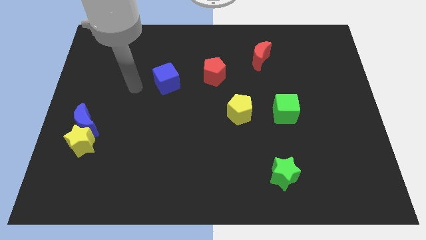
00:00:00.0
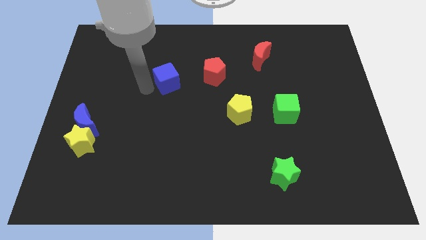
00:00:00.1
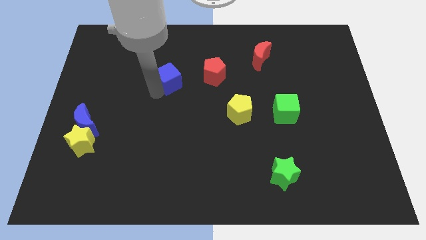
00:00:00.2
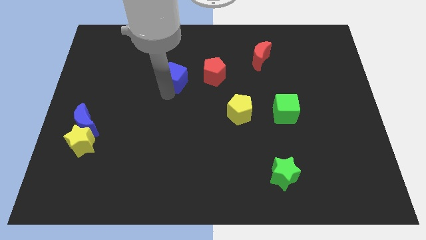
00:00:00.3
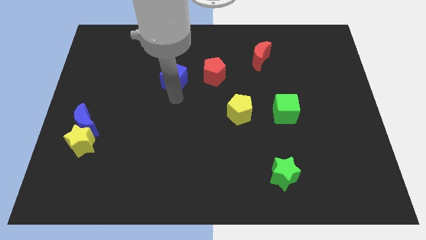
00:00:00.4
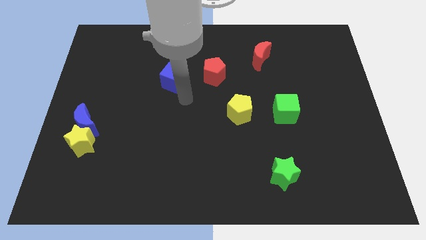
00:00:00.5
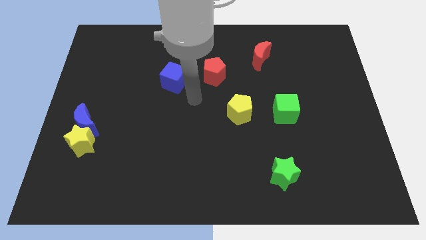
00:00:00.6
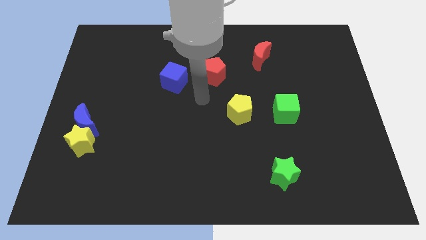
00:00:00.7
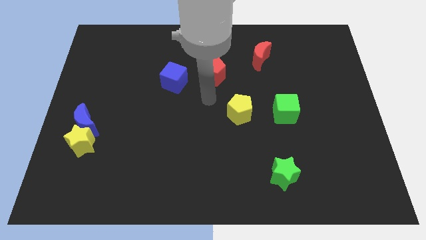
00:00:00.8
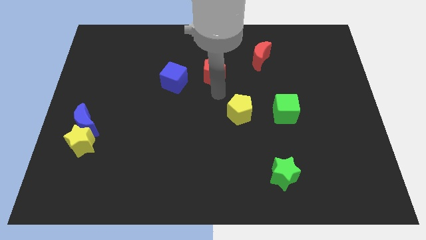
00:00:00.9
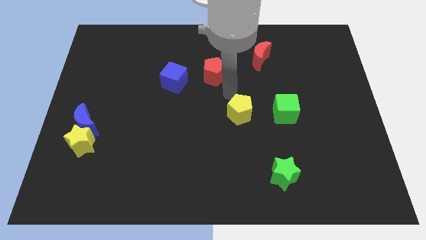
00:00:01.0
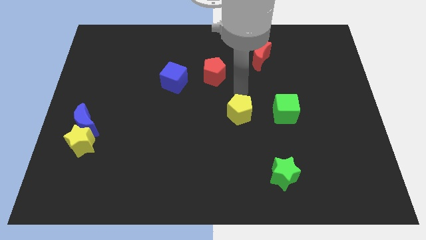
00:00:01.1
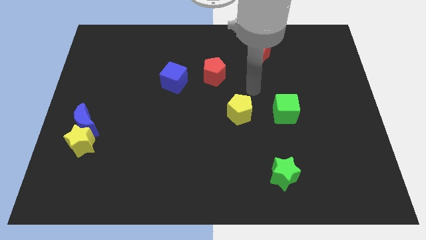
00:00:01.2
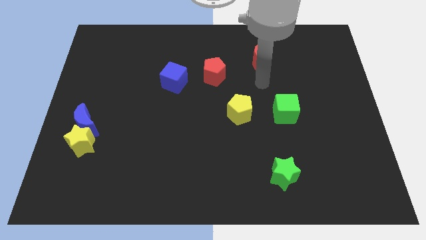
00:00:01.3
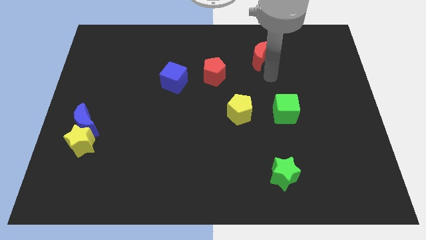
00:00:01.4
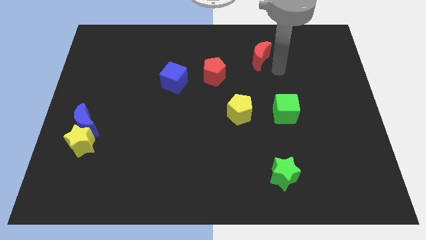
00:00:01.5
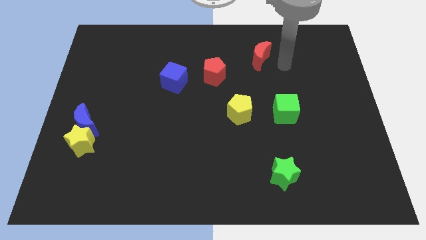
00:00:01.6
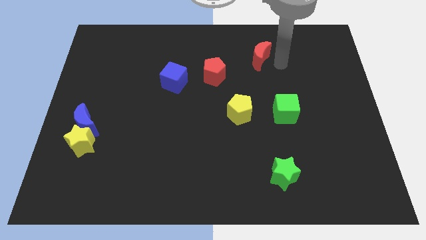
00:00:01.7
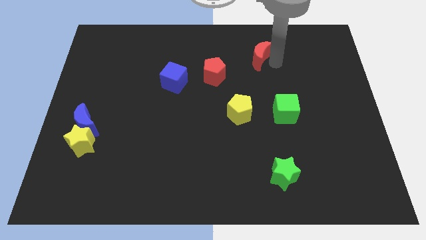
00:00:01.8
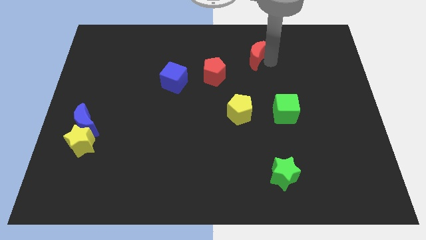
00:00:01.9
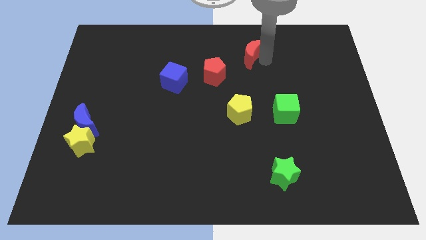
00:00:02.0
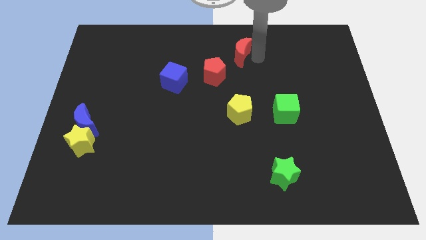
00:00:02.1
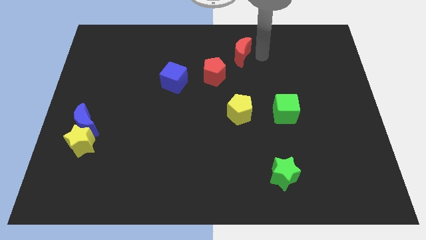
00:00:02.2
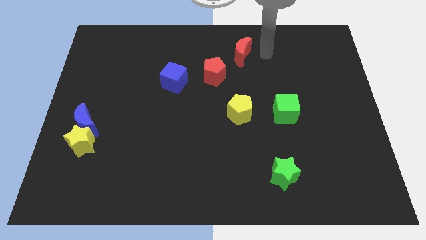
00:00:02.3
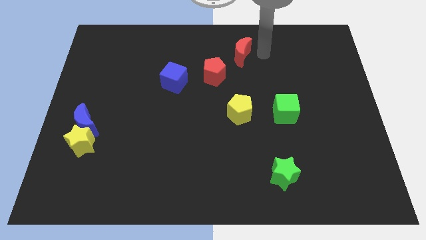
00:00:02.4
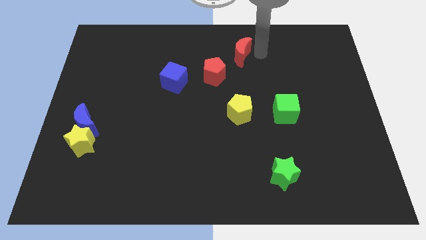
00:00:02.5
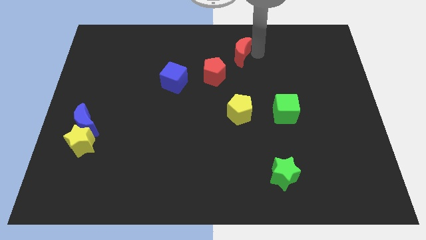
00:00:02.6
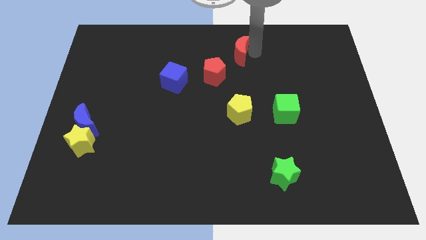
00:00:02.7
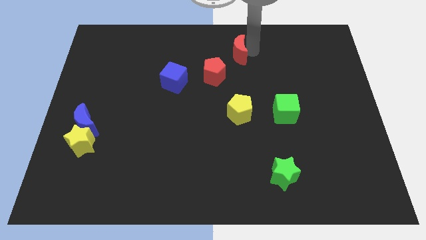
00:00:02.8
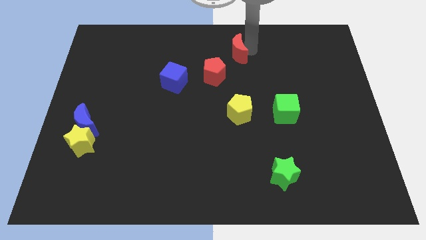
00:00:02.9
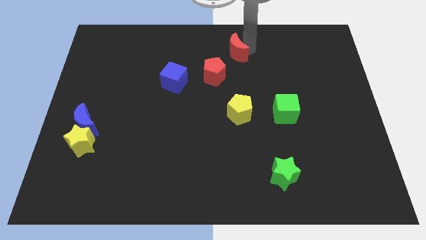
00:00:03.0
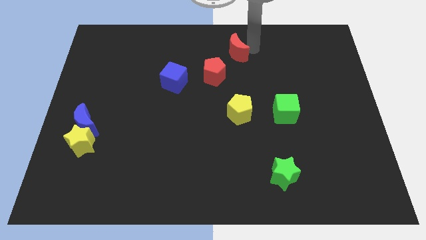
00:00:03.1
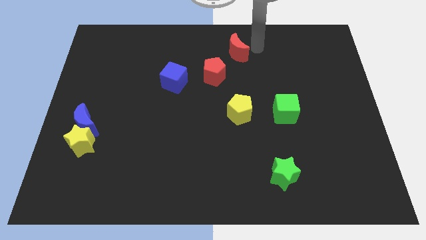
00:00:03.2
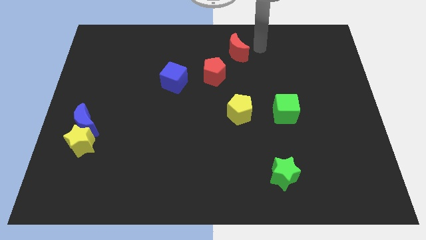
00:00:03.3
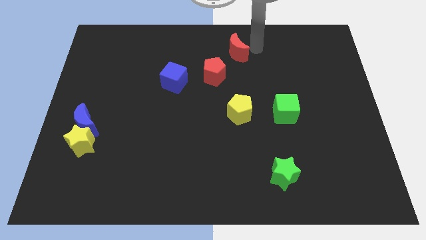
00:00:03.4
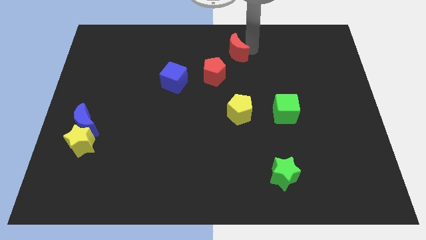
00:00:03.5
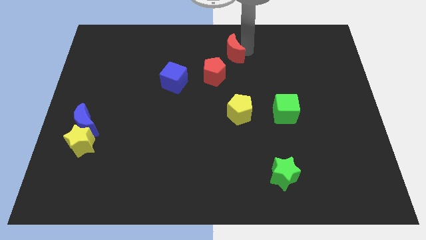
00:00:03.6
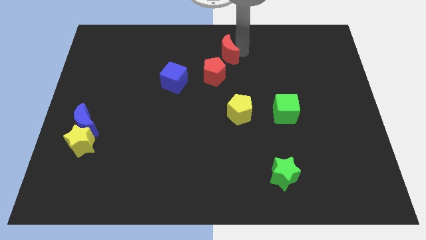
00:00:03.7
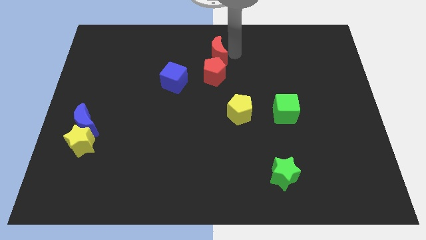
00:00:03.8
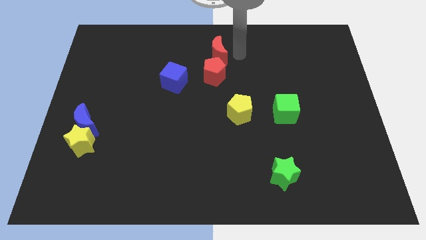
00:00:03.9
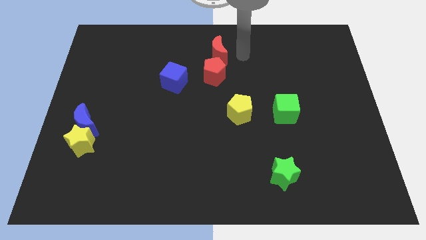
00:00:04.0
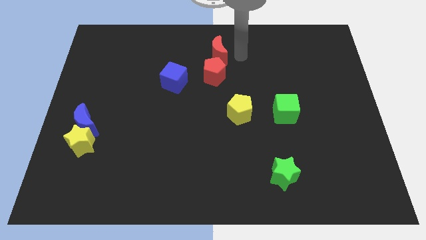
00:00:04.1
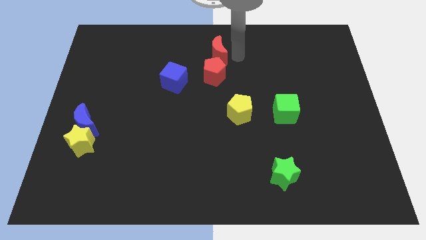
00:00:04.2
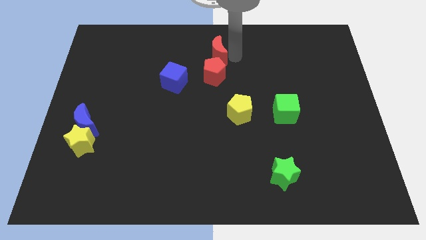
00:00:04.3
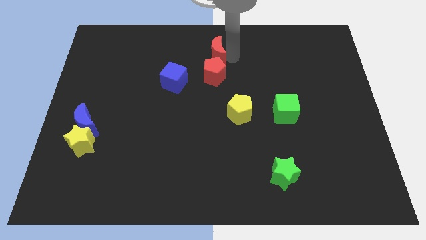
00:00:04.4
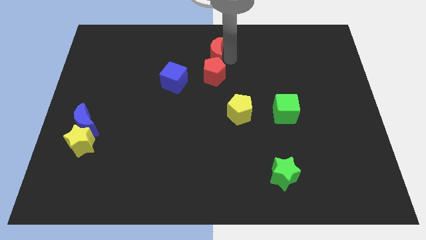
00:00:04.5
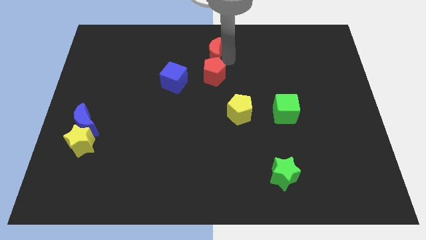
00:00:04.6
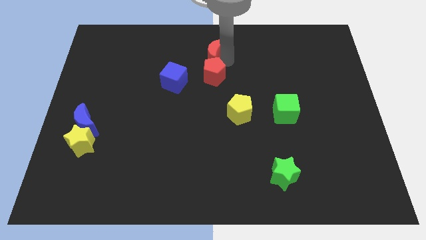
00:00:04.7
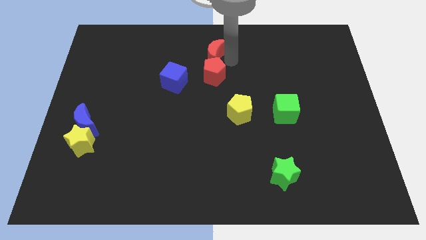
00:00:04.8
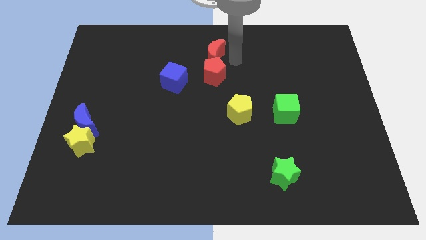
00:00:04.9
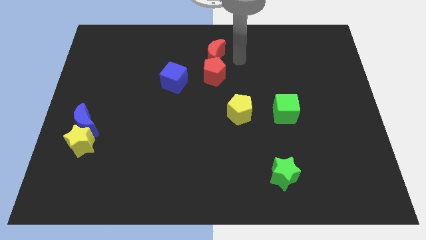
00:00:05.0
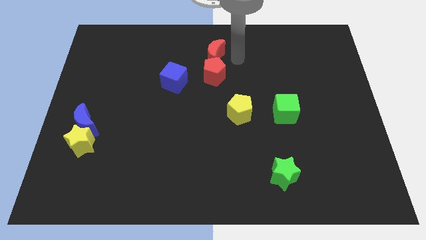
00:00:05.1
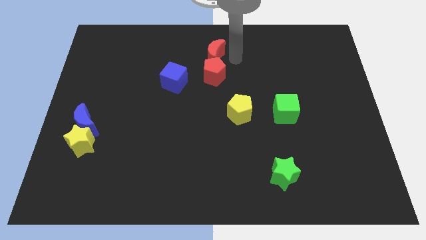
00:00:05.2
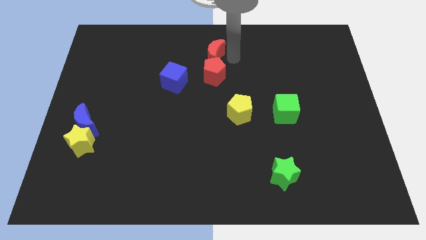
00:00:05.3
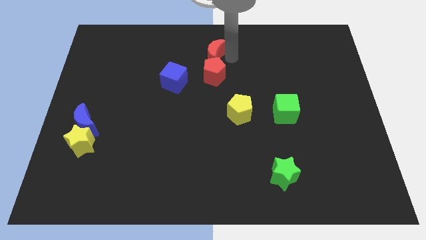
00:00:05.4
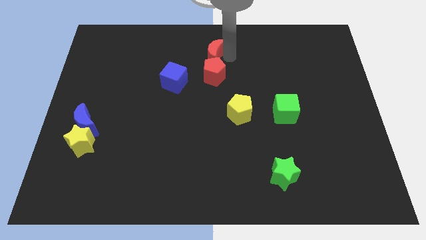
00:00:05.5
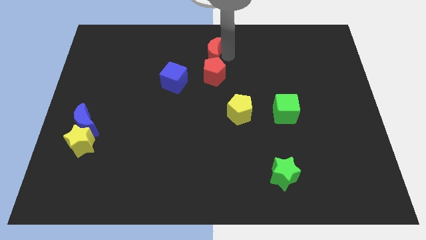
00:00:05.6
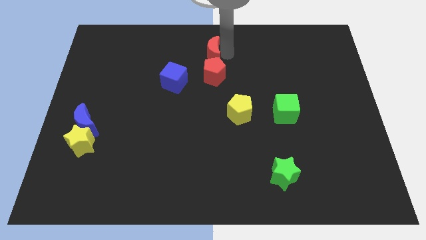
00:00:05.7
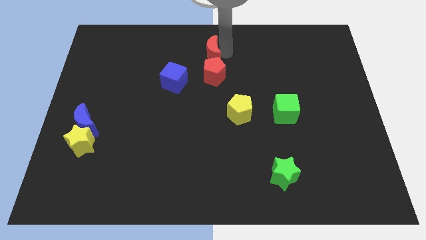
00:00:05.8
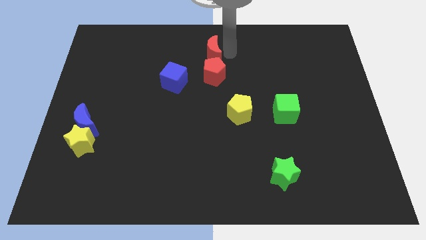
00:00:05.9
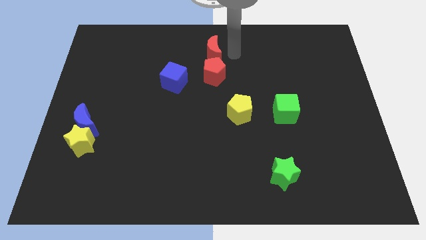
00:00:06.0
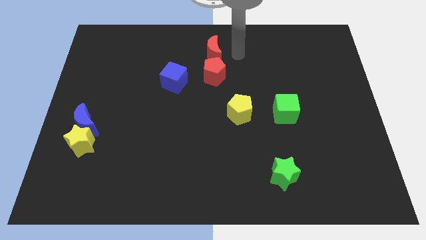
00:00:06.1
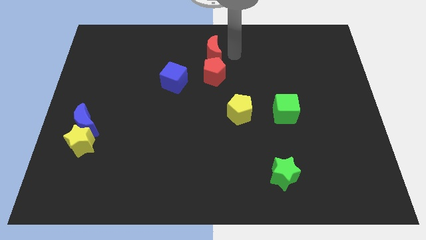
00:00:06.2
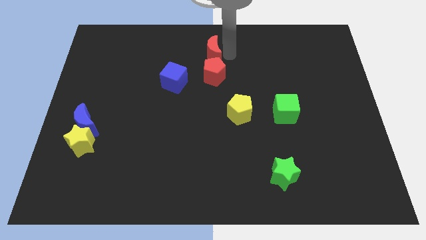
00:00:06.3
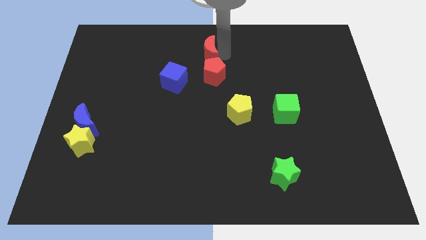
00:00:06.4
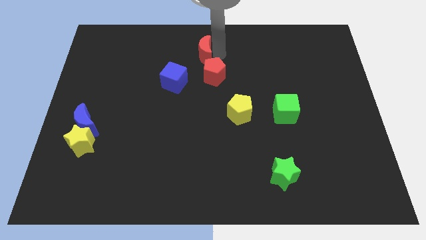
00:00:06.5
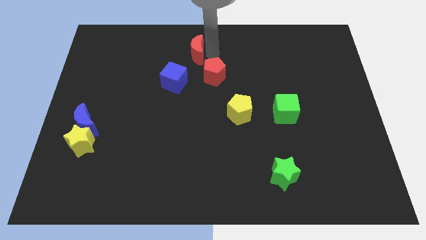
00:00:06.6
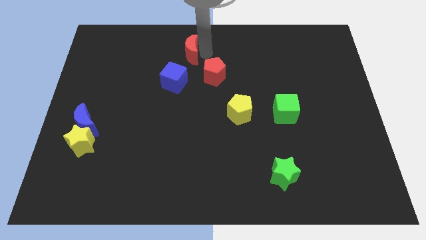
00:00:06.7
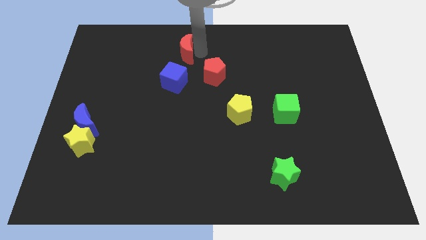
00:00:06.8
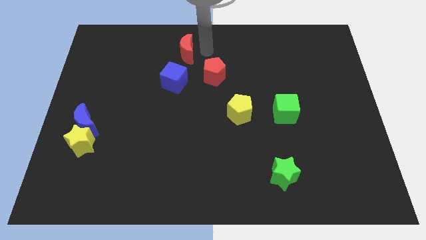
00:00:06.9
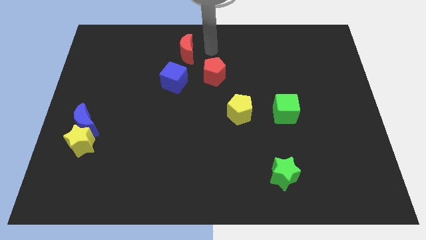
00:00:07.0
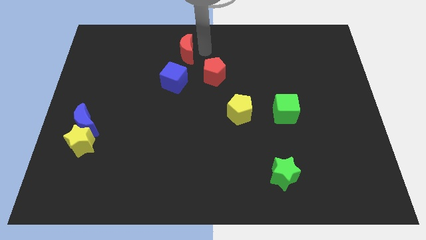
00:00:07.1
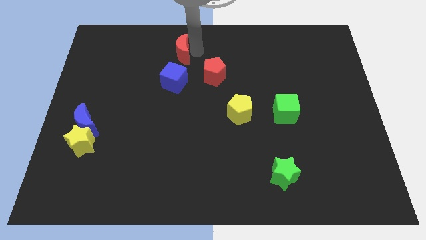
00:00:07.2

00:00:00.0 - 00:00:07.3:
push the red moon left

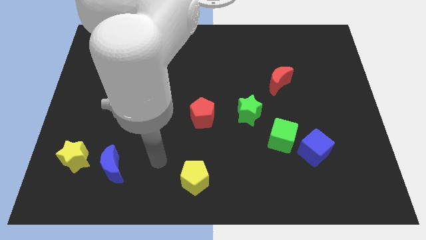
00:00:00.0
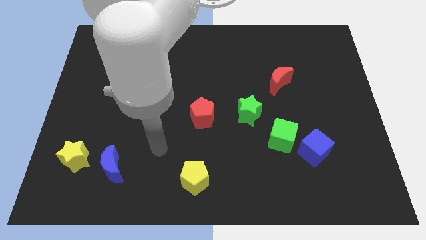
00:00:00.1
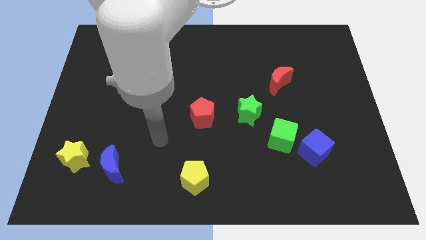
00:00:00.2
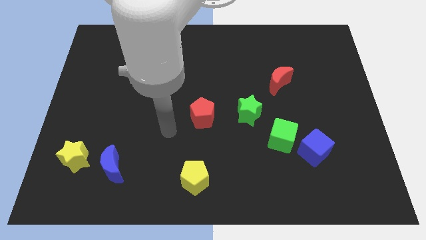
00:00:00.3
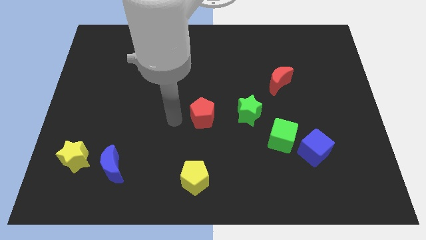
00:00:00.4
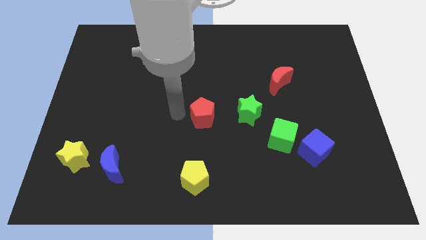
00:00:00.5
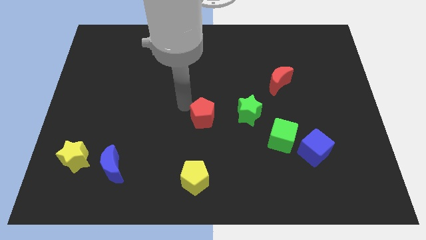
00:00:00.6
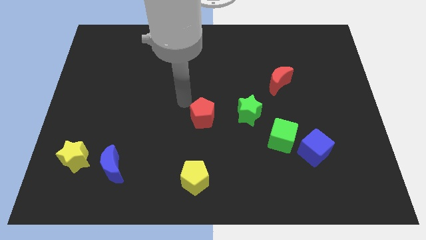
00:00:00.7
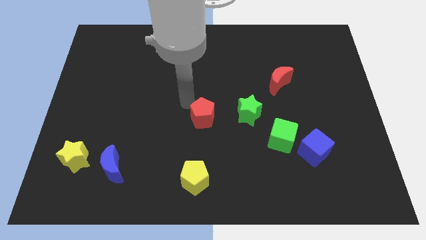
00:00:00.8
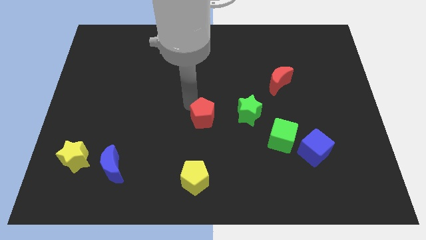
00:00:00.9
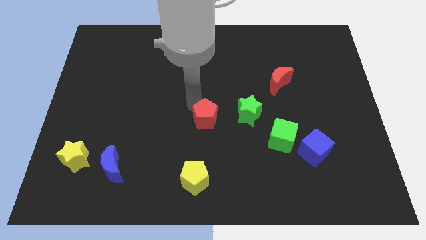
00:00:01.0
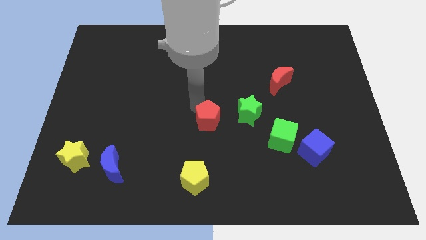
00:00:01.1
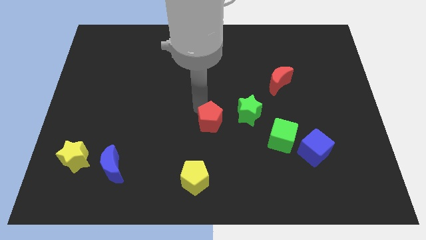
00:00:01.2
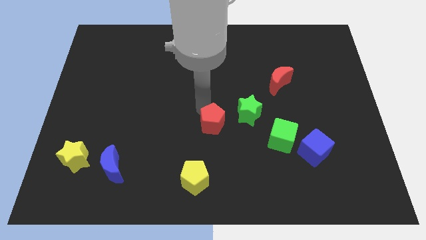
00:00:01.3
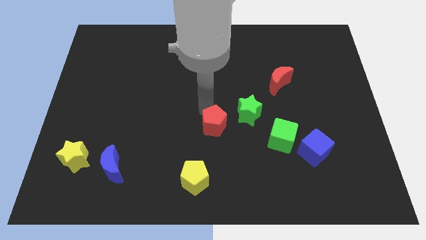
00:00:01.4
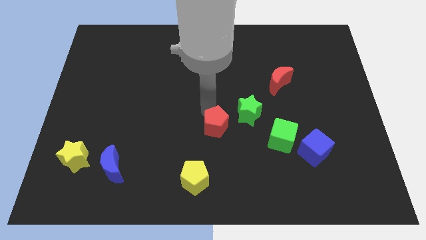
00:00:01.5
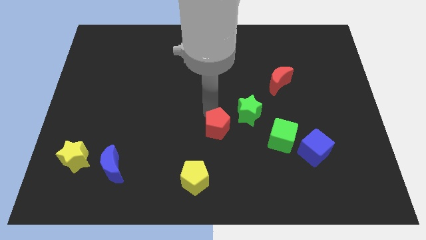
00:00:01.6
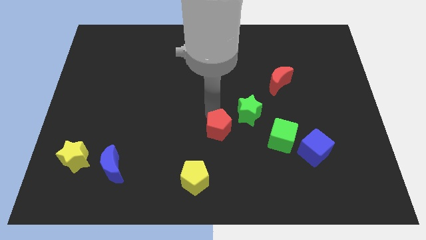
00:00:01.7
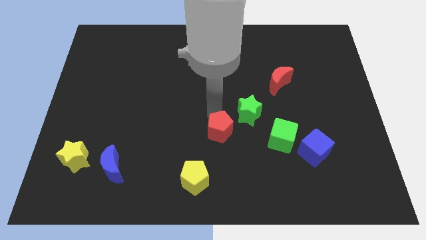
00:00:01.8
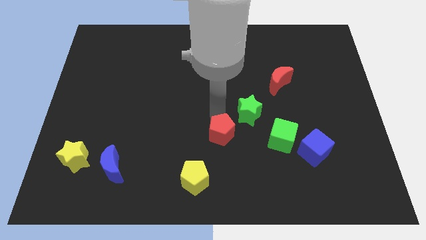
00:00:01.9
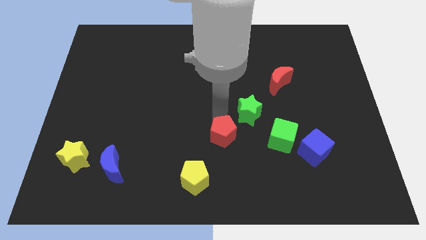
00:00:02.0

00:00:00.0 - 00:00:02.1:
slide the red pentagon a little bit downwards and right diagonally
